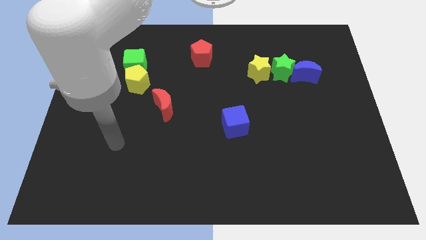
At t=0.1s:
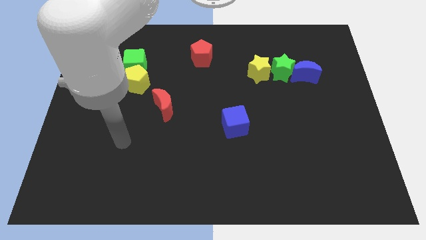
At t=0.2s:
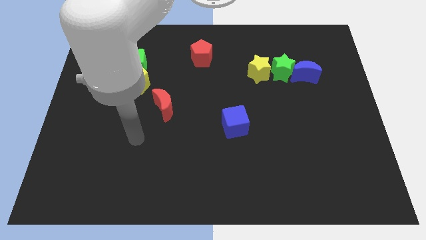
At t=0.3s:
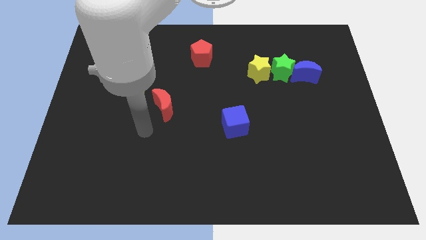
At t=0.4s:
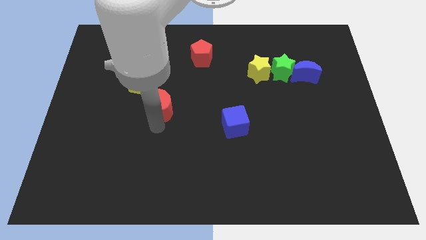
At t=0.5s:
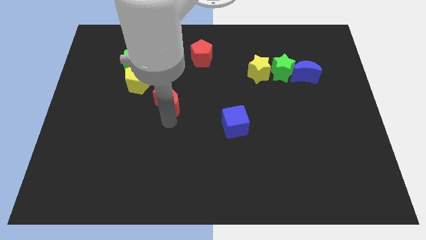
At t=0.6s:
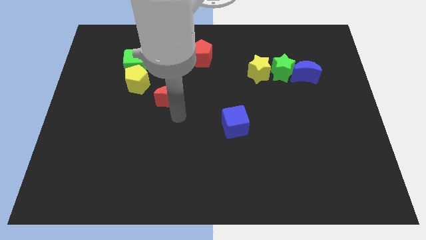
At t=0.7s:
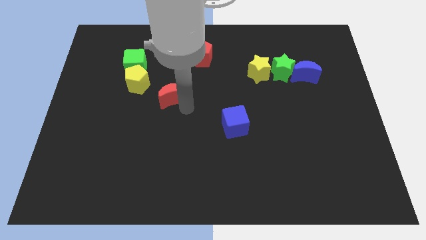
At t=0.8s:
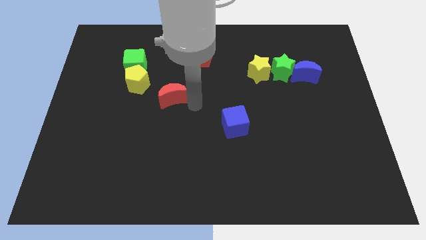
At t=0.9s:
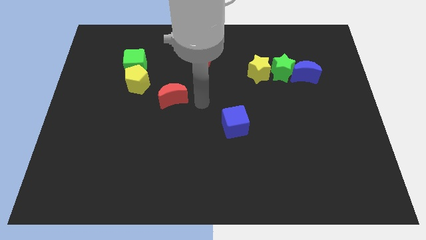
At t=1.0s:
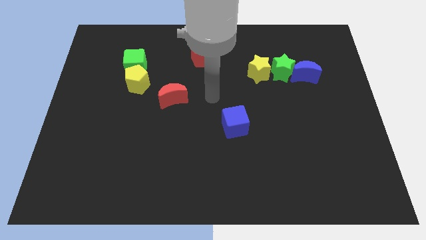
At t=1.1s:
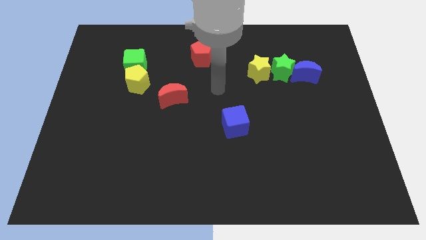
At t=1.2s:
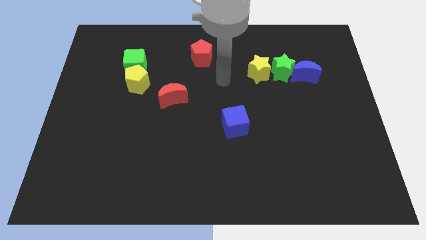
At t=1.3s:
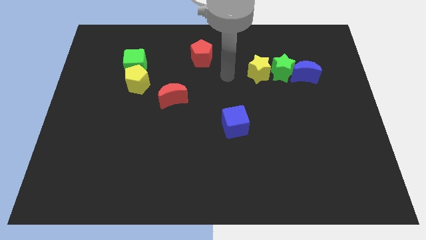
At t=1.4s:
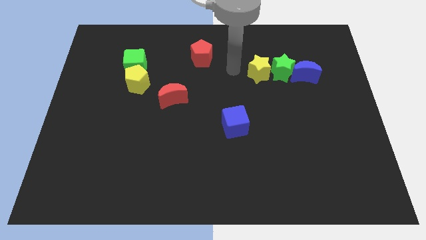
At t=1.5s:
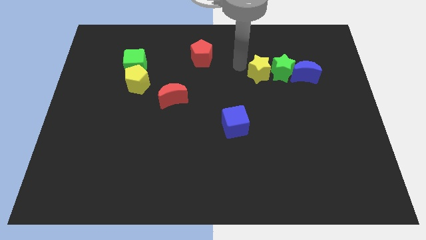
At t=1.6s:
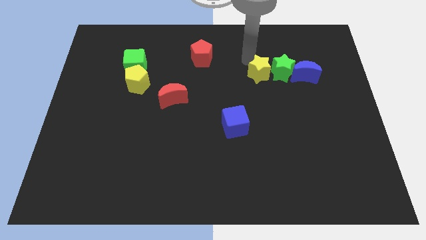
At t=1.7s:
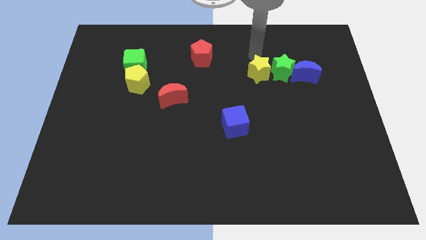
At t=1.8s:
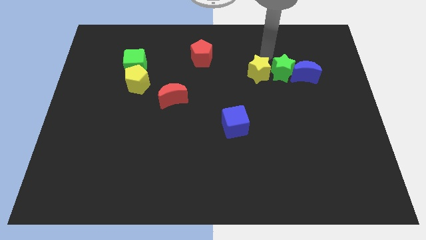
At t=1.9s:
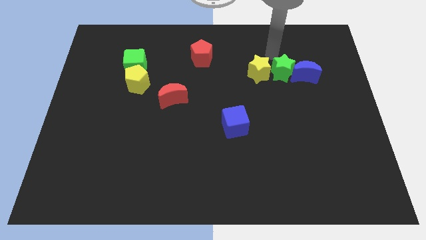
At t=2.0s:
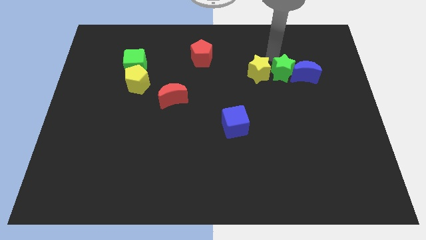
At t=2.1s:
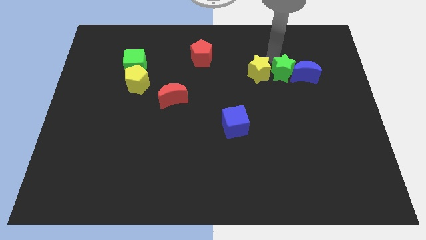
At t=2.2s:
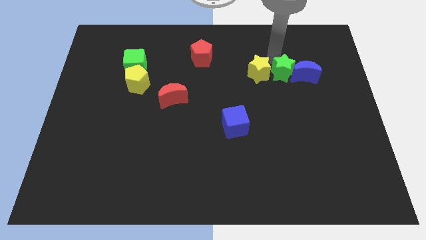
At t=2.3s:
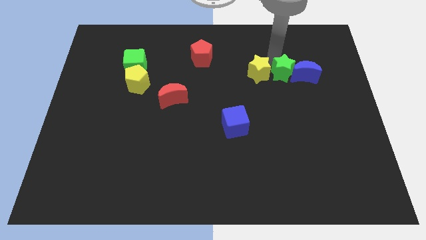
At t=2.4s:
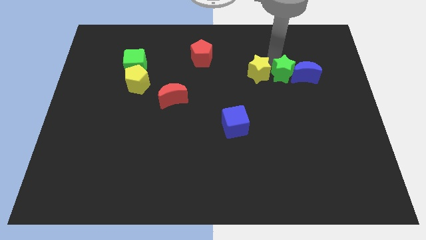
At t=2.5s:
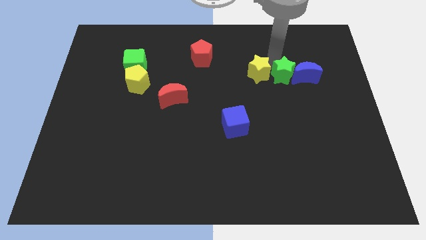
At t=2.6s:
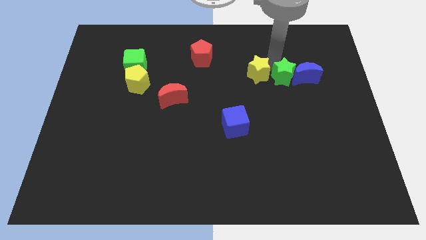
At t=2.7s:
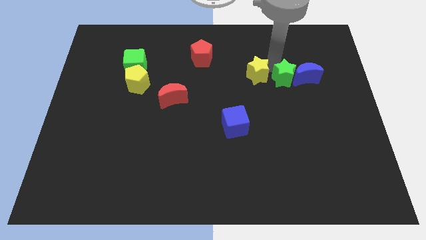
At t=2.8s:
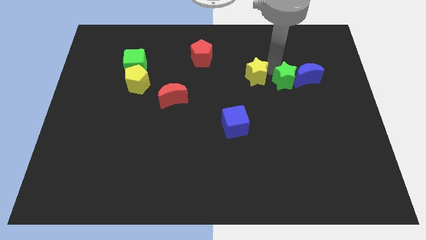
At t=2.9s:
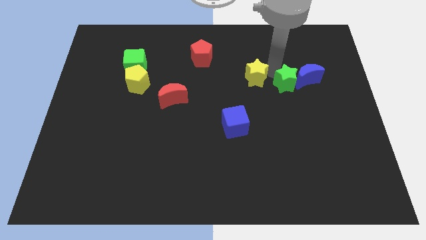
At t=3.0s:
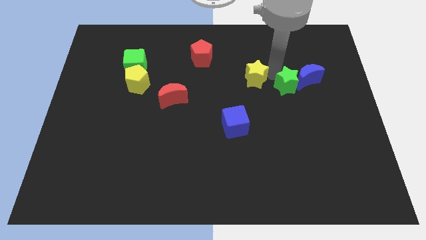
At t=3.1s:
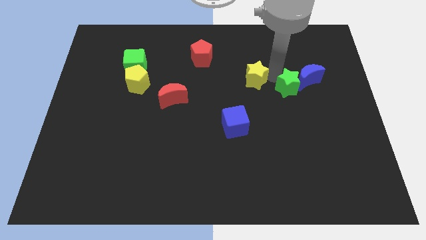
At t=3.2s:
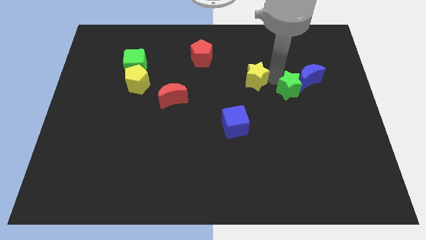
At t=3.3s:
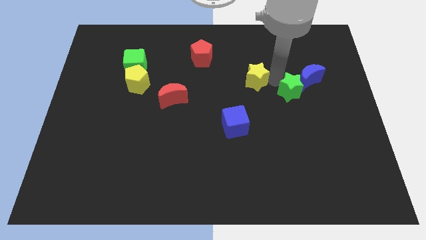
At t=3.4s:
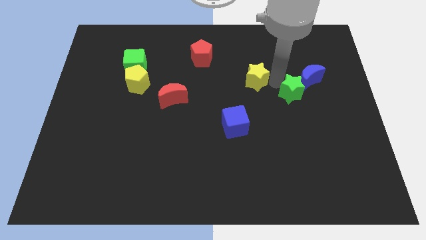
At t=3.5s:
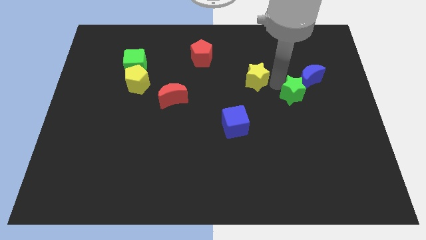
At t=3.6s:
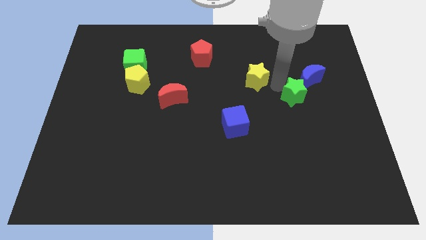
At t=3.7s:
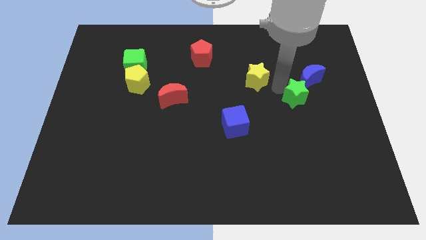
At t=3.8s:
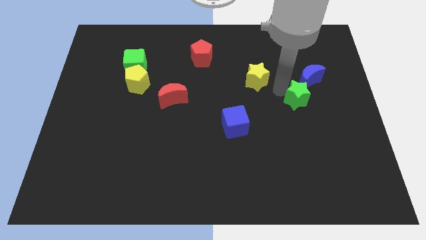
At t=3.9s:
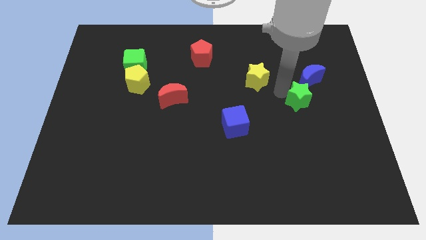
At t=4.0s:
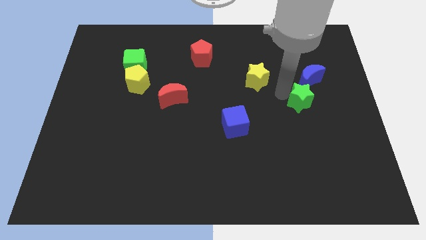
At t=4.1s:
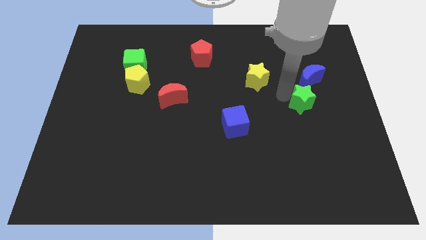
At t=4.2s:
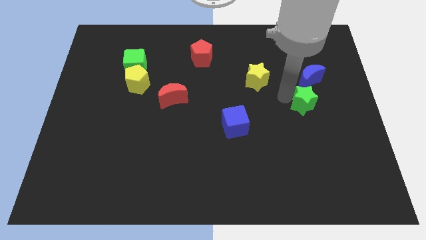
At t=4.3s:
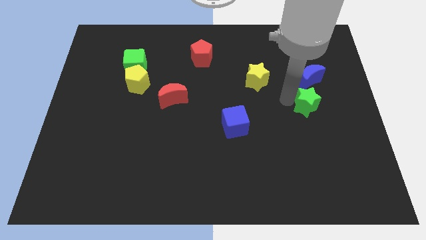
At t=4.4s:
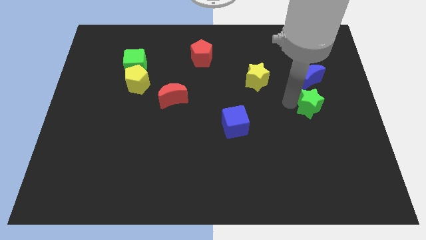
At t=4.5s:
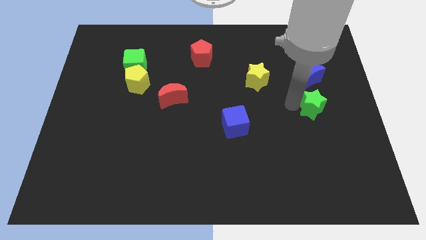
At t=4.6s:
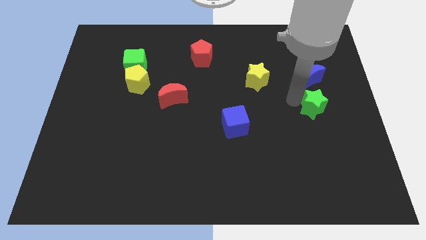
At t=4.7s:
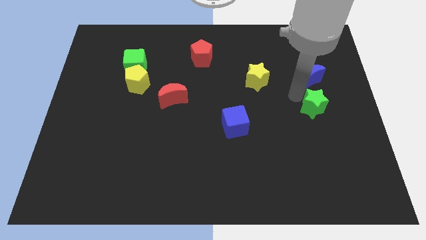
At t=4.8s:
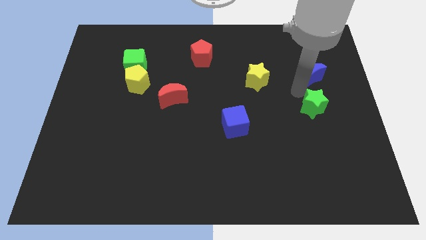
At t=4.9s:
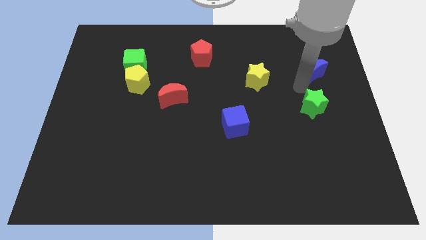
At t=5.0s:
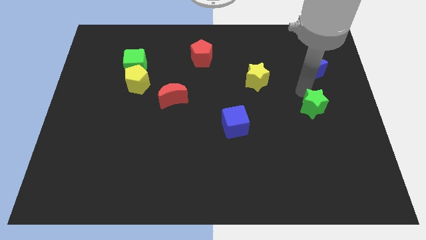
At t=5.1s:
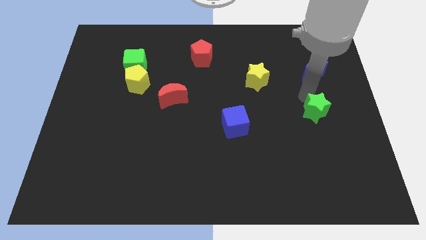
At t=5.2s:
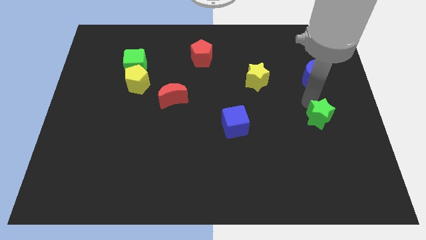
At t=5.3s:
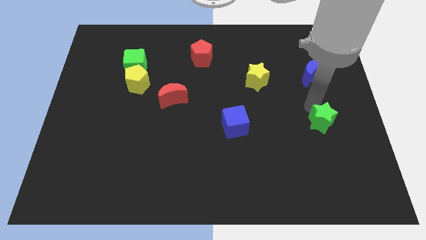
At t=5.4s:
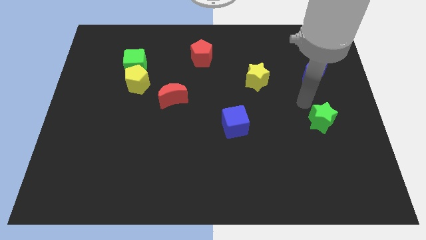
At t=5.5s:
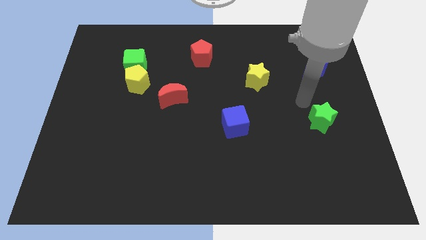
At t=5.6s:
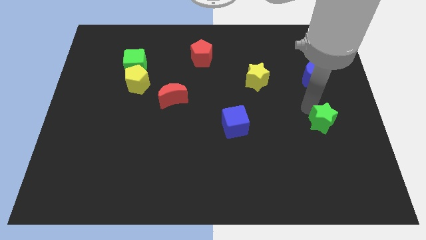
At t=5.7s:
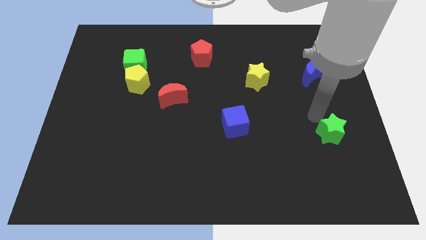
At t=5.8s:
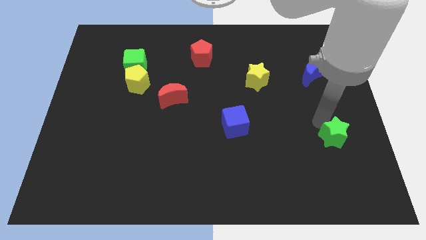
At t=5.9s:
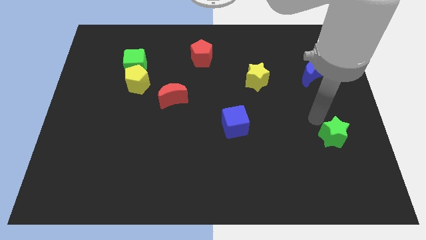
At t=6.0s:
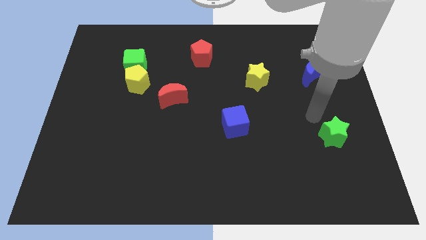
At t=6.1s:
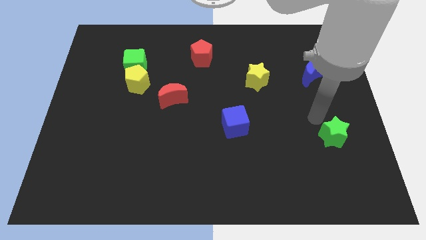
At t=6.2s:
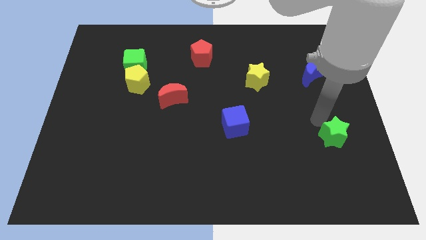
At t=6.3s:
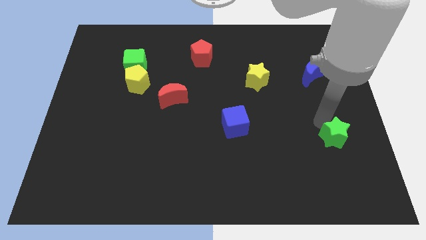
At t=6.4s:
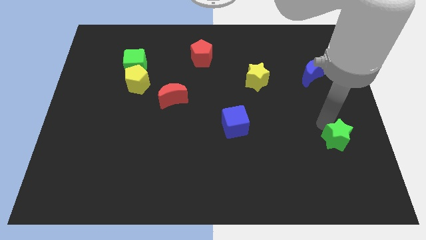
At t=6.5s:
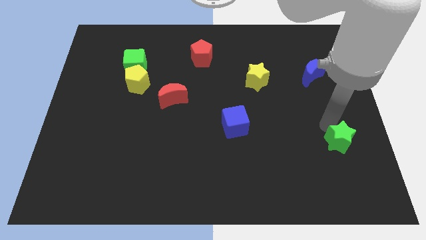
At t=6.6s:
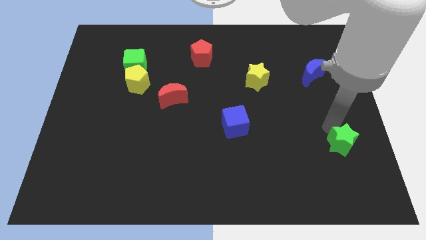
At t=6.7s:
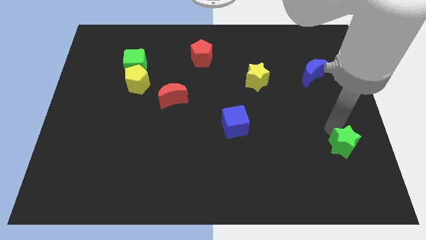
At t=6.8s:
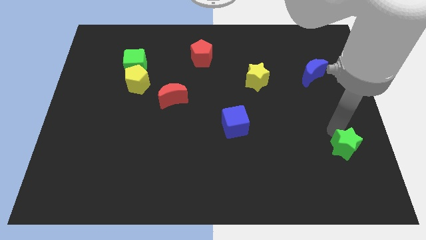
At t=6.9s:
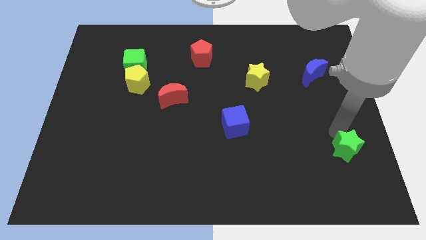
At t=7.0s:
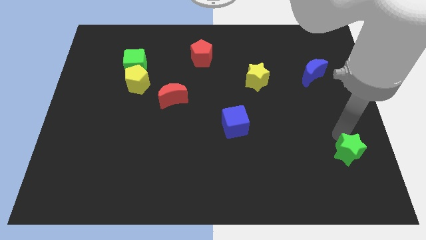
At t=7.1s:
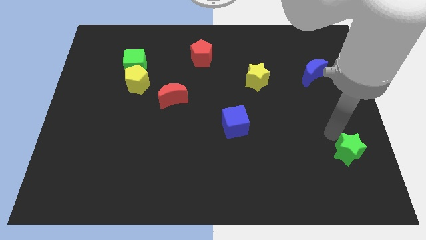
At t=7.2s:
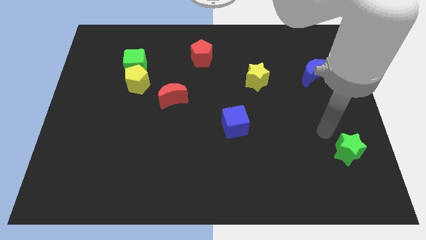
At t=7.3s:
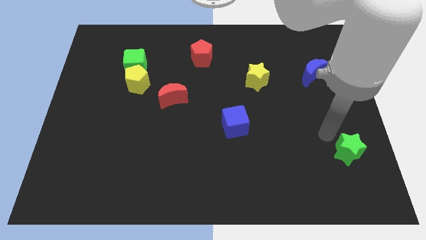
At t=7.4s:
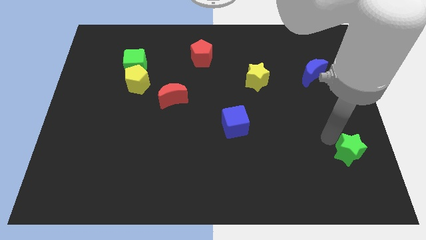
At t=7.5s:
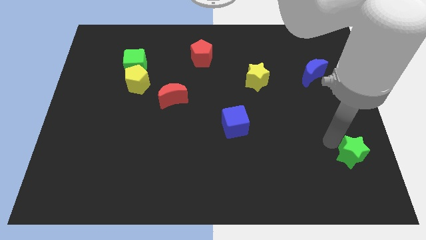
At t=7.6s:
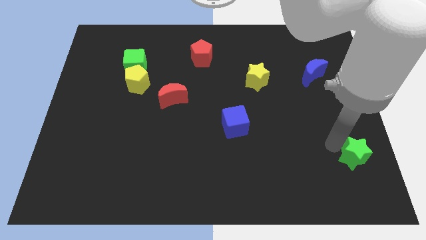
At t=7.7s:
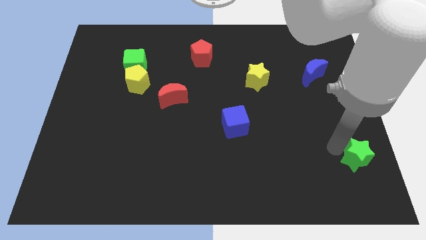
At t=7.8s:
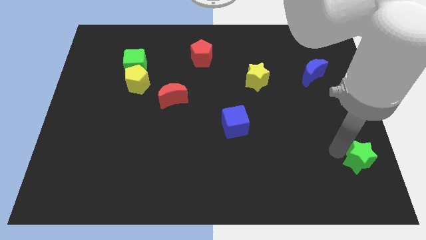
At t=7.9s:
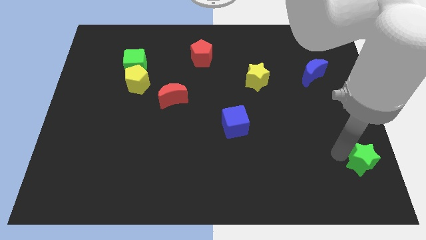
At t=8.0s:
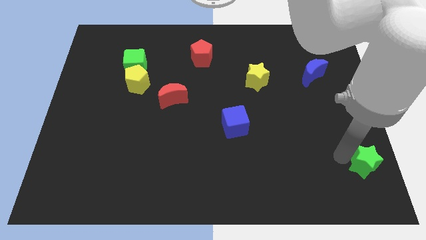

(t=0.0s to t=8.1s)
move the green star to the lower right corner
